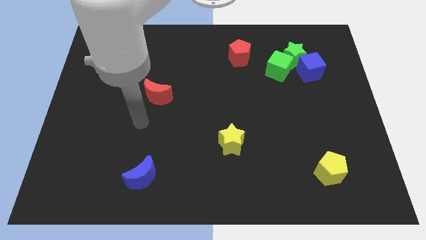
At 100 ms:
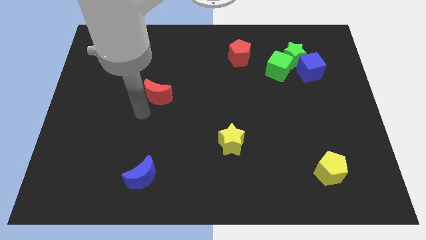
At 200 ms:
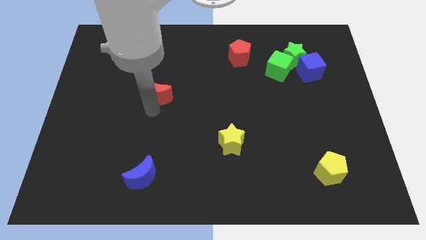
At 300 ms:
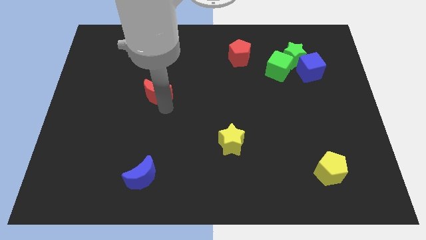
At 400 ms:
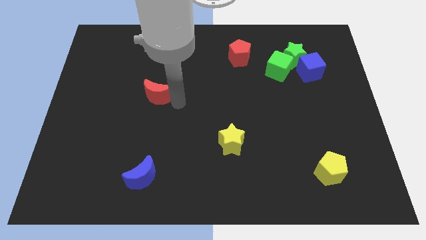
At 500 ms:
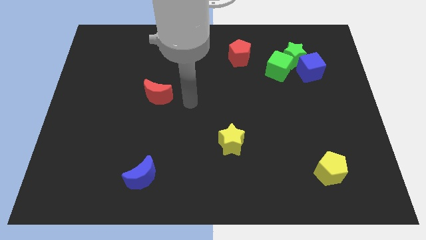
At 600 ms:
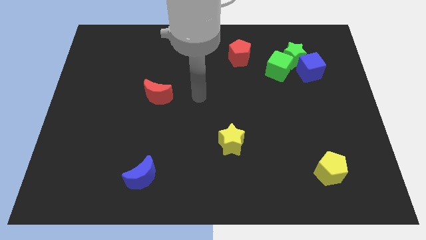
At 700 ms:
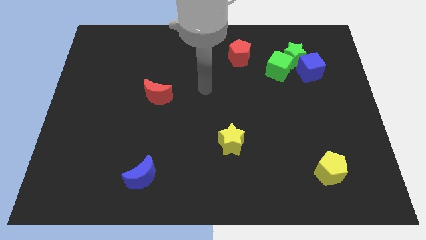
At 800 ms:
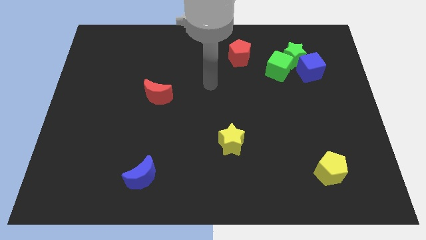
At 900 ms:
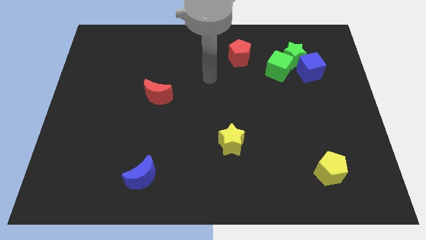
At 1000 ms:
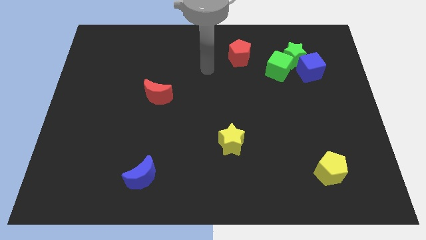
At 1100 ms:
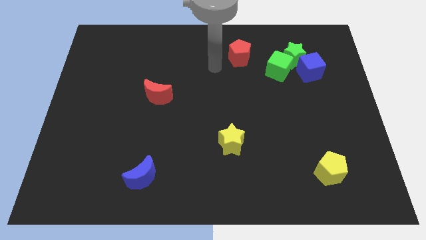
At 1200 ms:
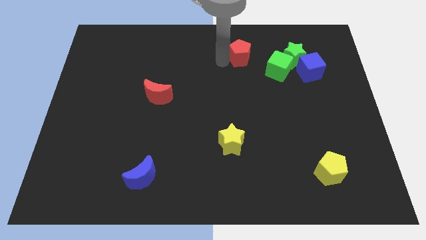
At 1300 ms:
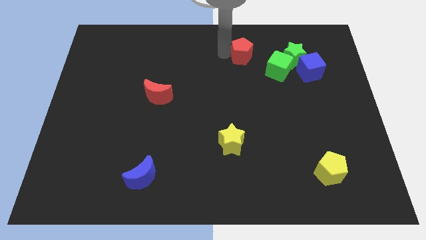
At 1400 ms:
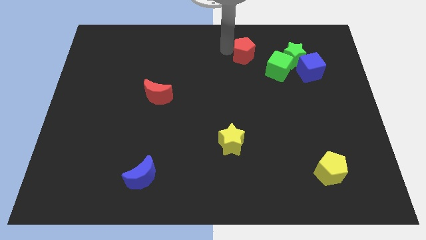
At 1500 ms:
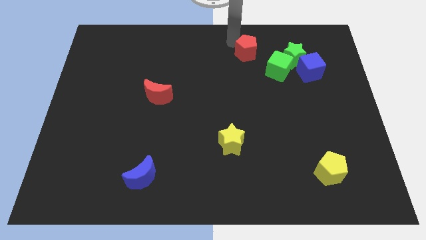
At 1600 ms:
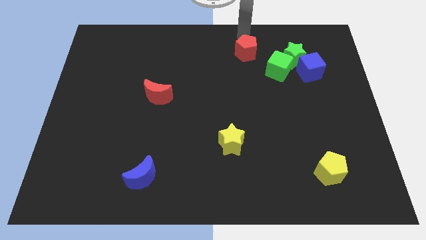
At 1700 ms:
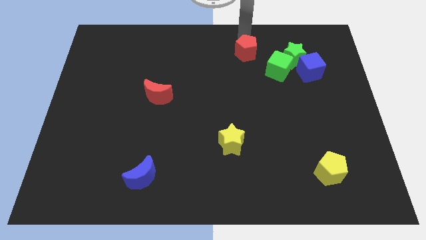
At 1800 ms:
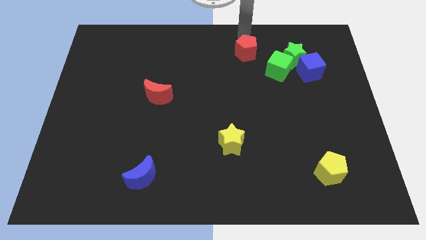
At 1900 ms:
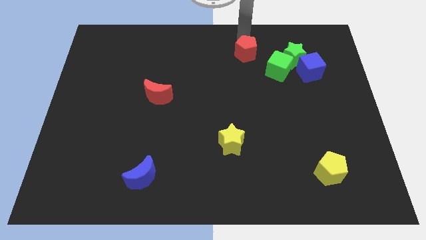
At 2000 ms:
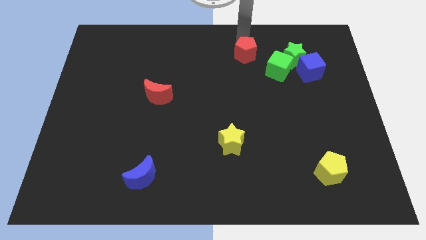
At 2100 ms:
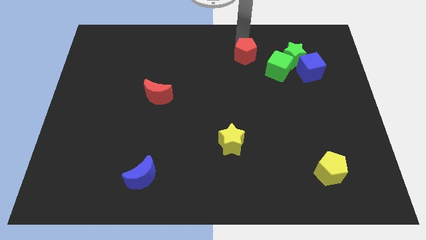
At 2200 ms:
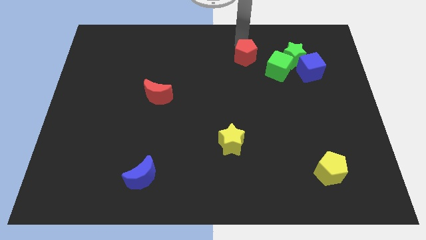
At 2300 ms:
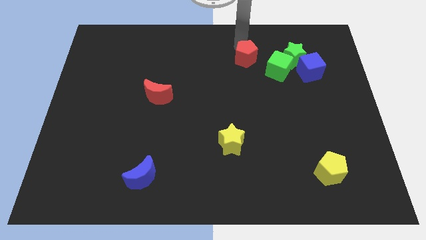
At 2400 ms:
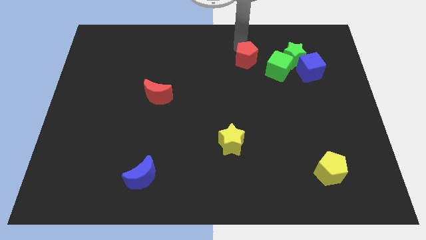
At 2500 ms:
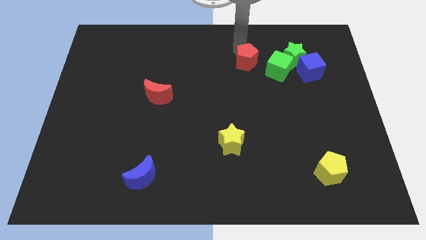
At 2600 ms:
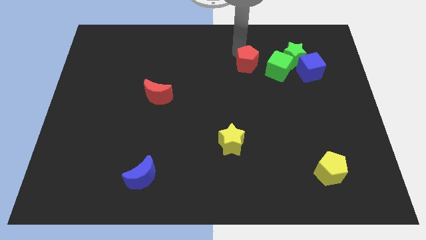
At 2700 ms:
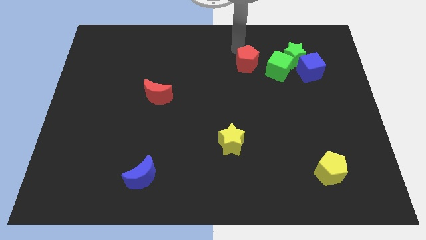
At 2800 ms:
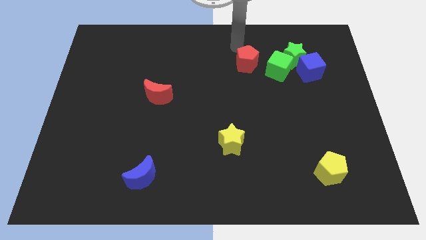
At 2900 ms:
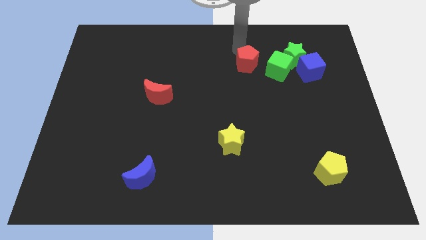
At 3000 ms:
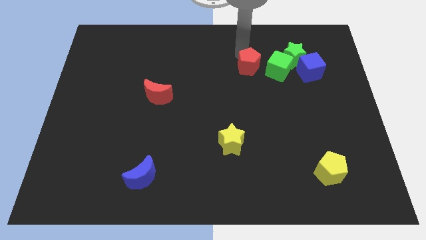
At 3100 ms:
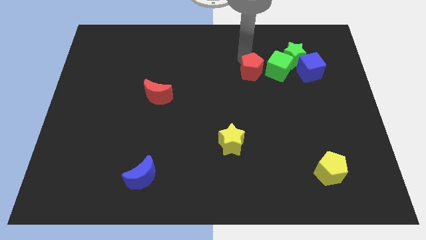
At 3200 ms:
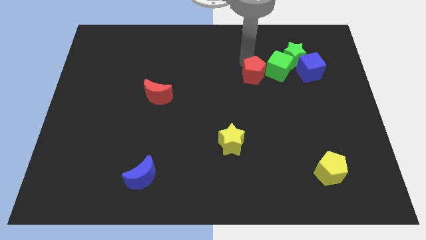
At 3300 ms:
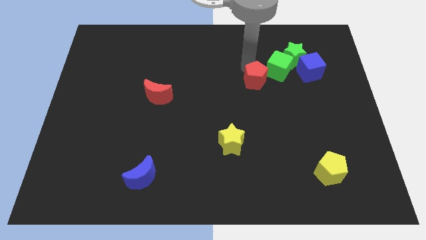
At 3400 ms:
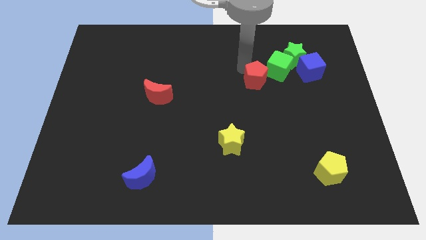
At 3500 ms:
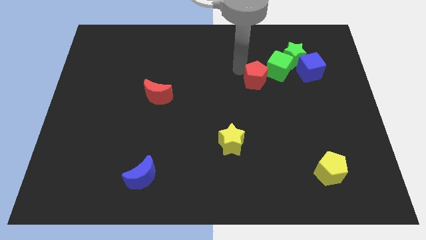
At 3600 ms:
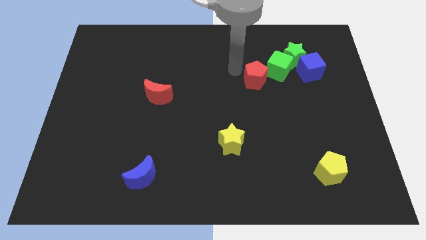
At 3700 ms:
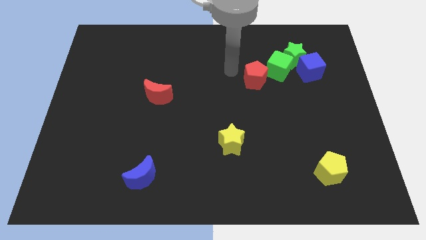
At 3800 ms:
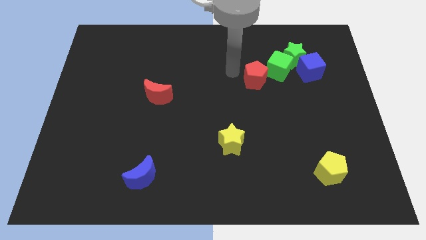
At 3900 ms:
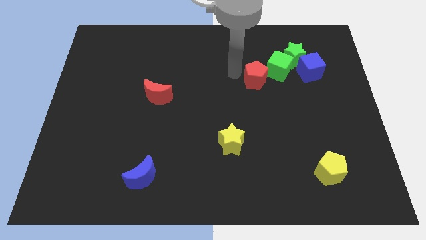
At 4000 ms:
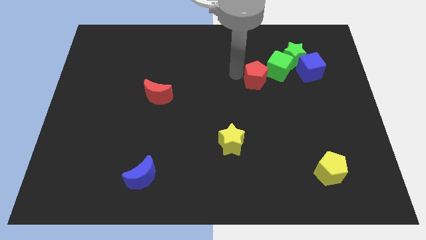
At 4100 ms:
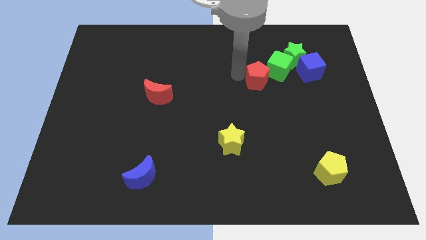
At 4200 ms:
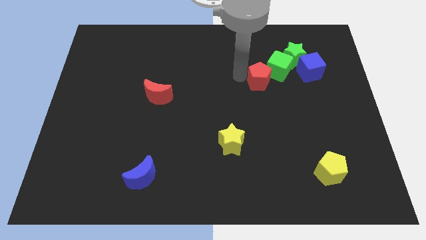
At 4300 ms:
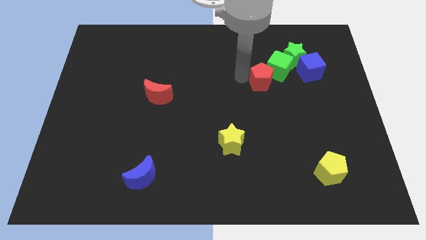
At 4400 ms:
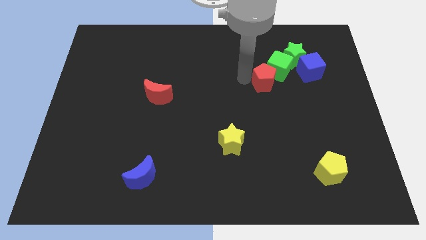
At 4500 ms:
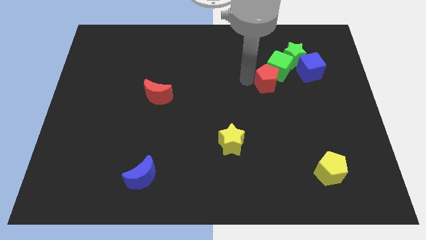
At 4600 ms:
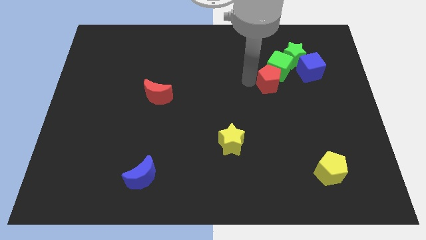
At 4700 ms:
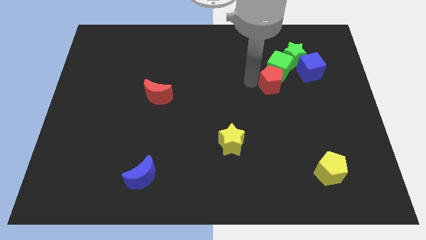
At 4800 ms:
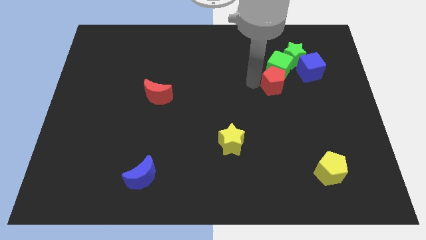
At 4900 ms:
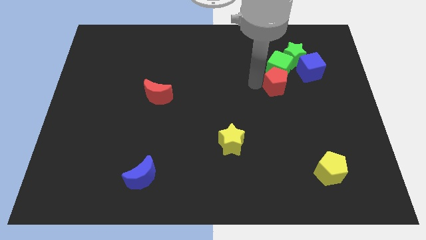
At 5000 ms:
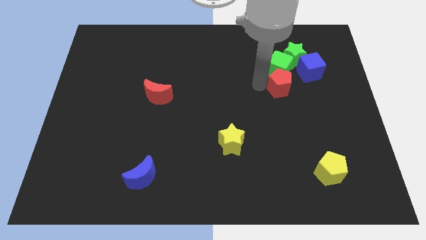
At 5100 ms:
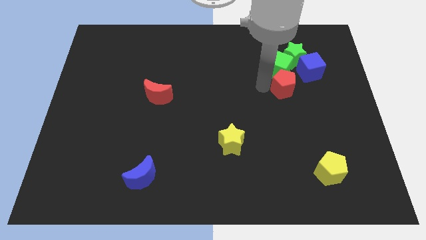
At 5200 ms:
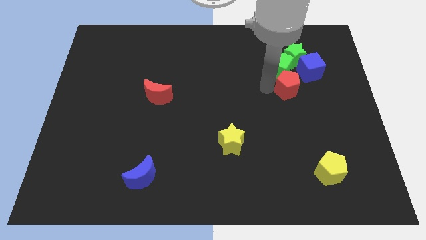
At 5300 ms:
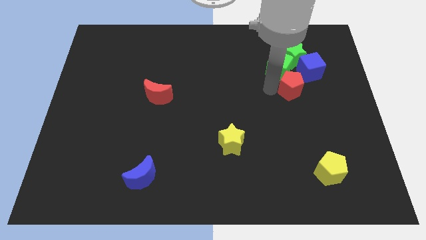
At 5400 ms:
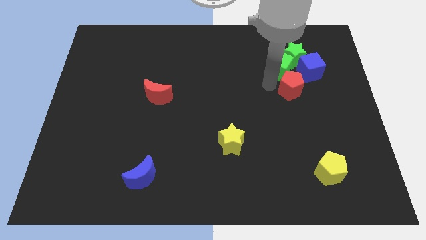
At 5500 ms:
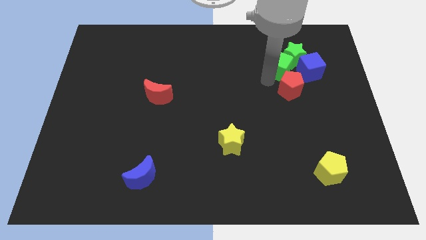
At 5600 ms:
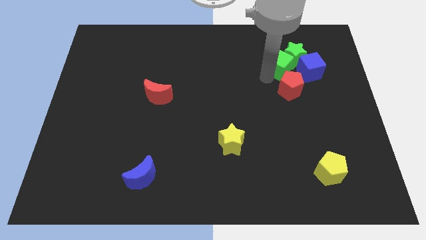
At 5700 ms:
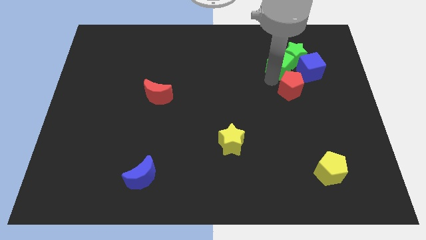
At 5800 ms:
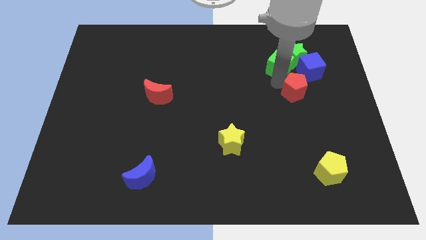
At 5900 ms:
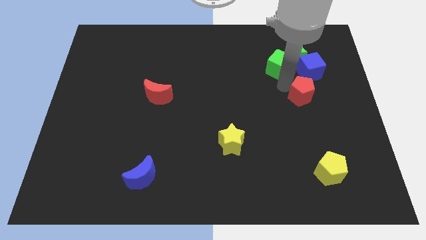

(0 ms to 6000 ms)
put the red pentagon below the blue cube

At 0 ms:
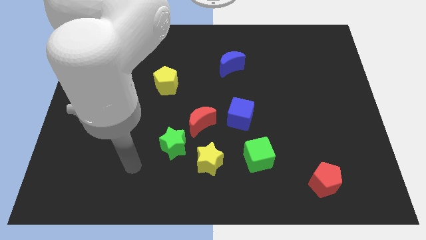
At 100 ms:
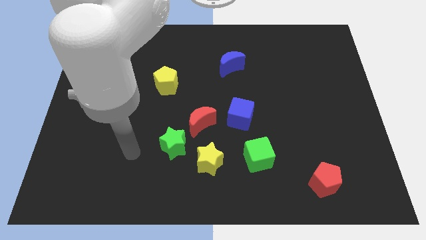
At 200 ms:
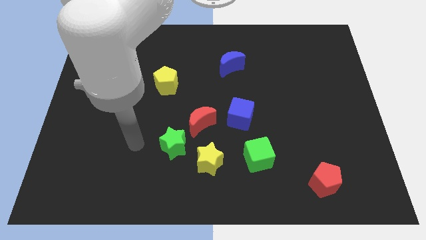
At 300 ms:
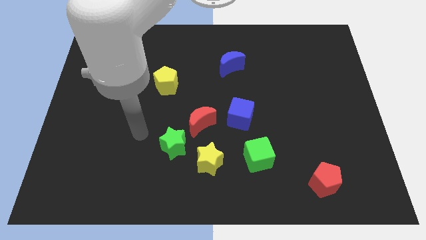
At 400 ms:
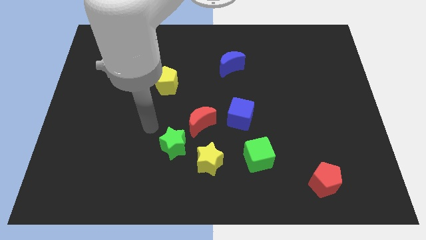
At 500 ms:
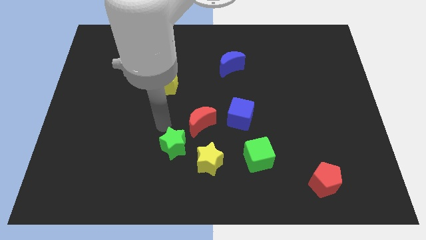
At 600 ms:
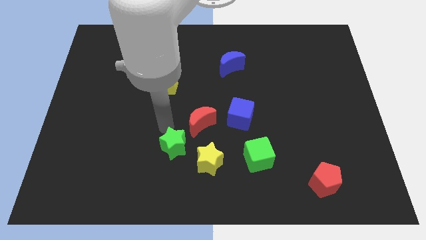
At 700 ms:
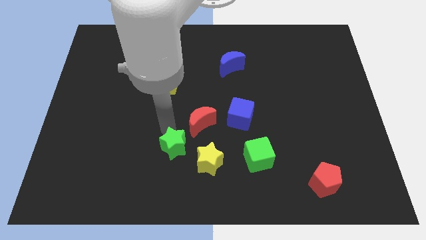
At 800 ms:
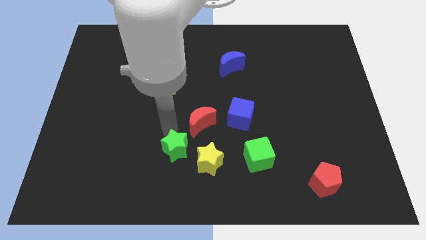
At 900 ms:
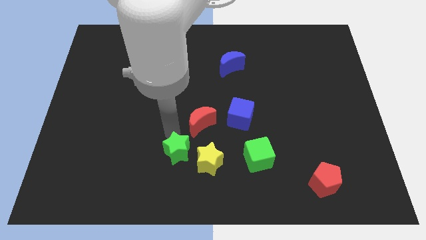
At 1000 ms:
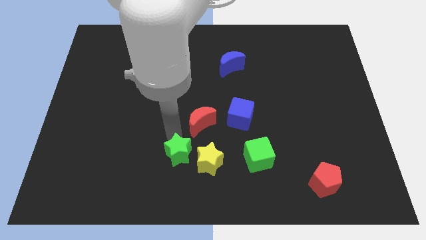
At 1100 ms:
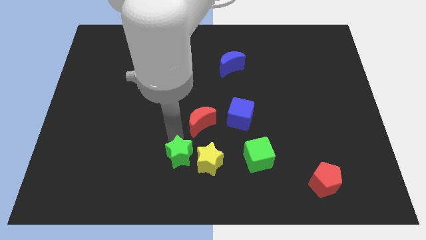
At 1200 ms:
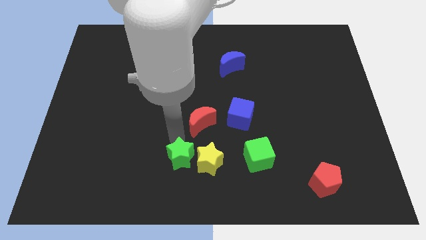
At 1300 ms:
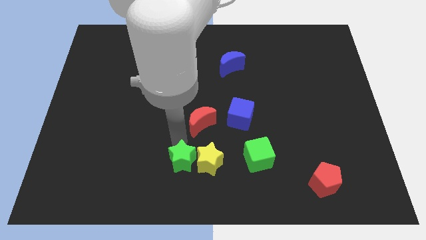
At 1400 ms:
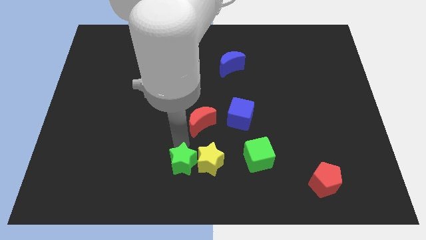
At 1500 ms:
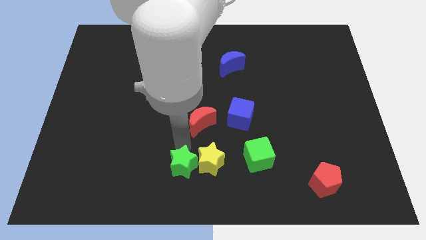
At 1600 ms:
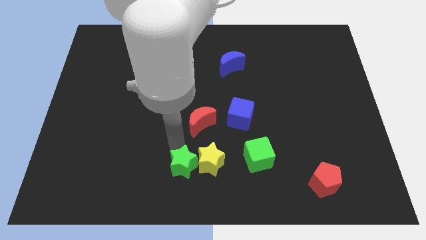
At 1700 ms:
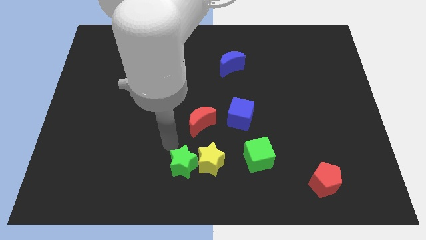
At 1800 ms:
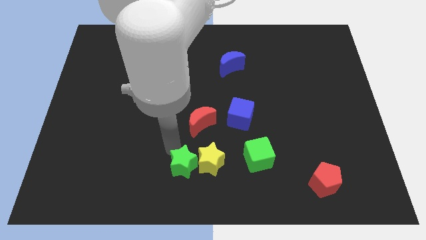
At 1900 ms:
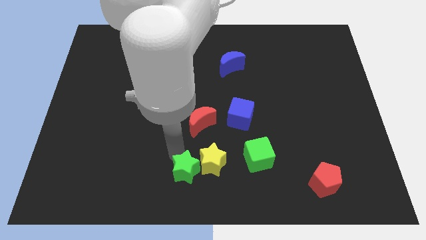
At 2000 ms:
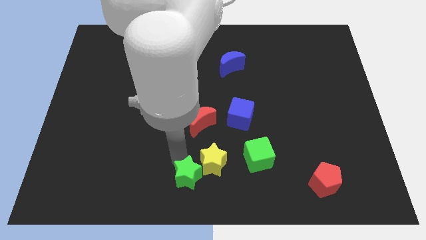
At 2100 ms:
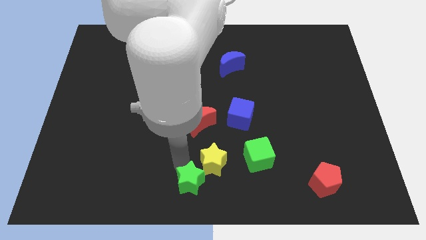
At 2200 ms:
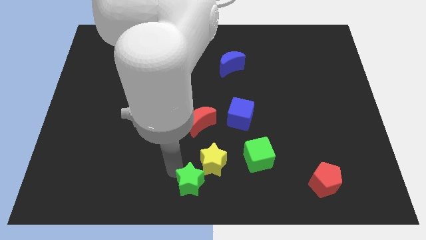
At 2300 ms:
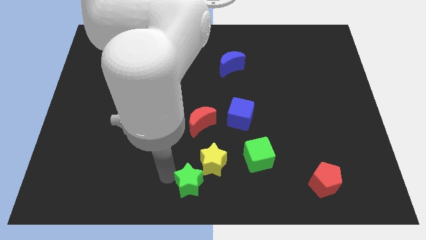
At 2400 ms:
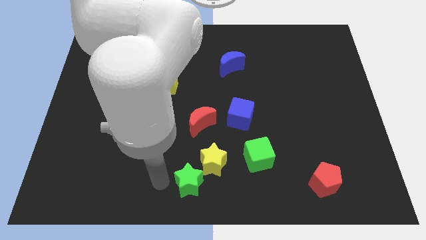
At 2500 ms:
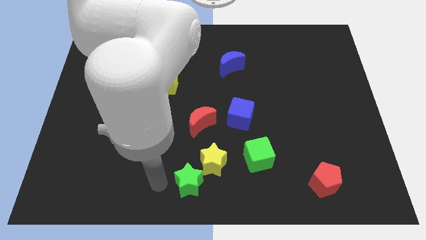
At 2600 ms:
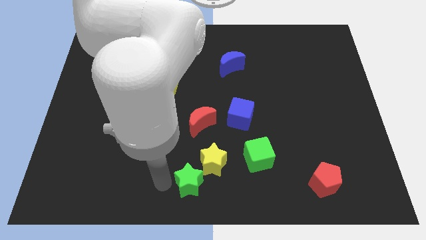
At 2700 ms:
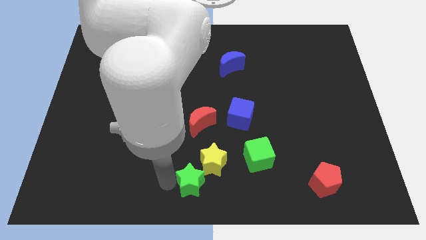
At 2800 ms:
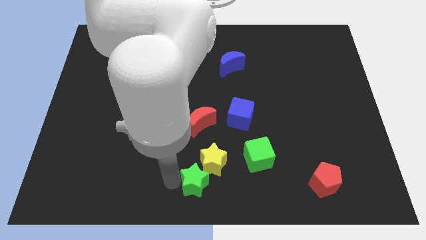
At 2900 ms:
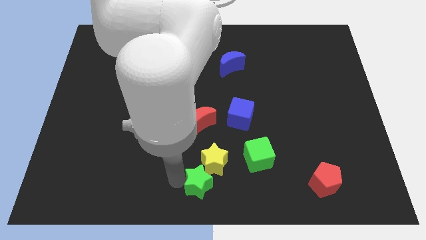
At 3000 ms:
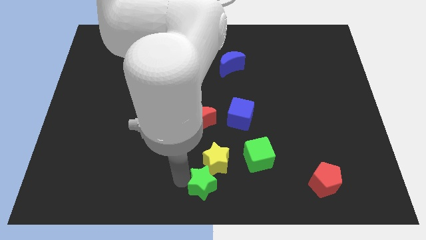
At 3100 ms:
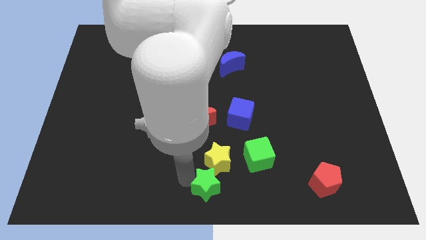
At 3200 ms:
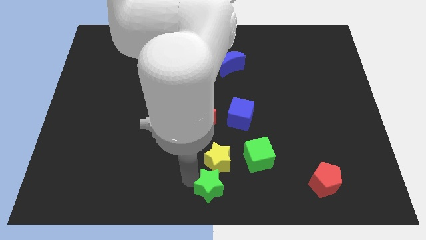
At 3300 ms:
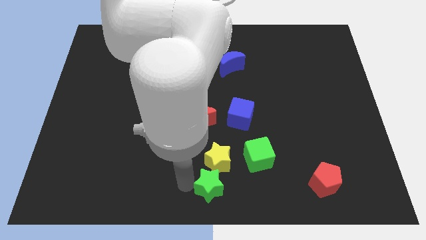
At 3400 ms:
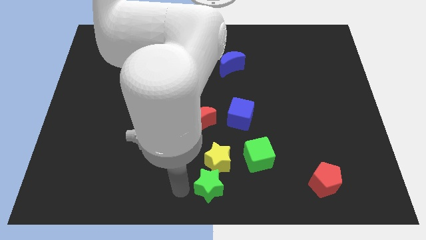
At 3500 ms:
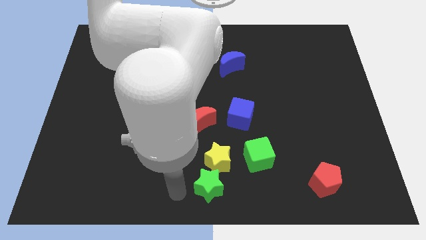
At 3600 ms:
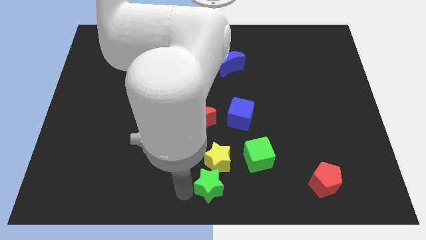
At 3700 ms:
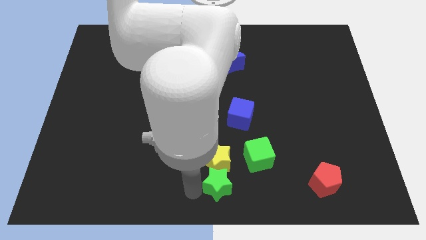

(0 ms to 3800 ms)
put the green star to the bottom right of the yellow star
